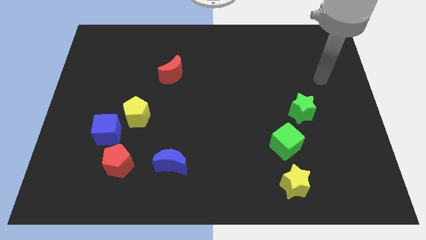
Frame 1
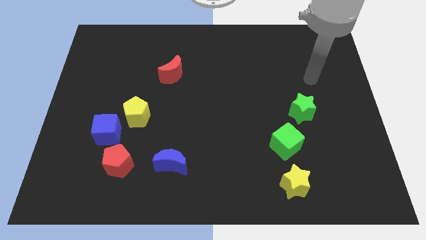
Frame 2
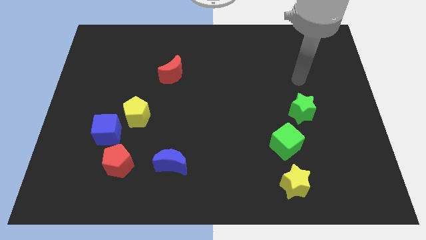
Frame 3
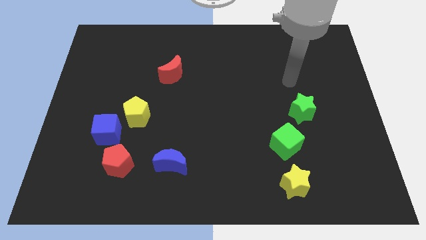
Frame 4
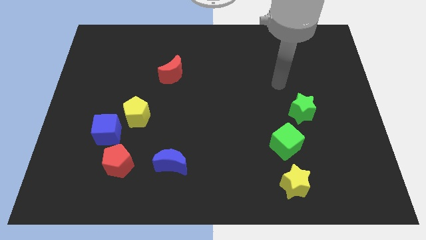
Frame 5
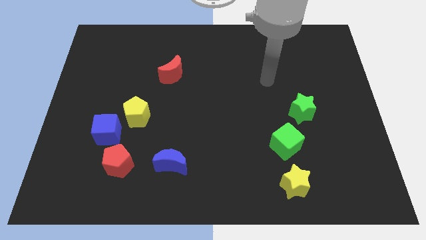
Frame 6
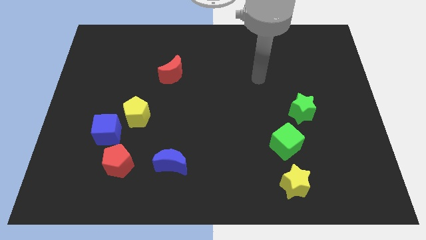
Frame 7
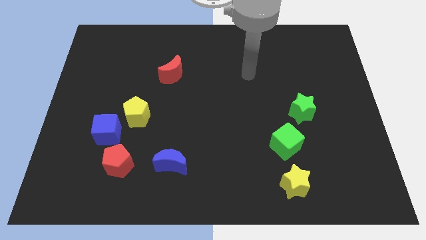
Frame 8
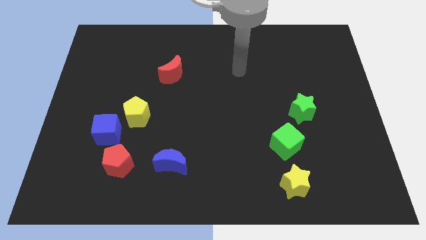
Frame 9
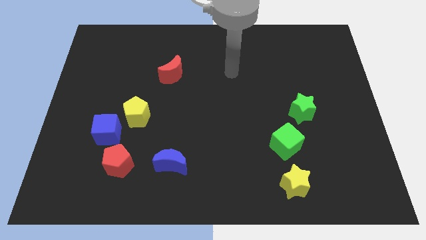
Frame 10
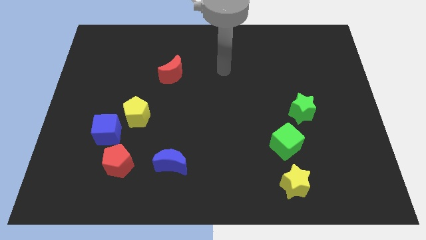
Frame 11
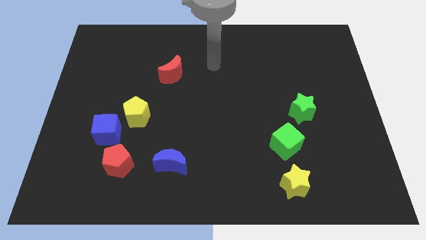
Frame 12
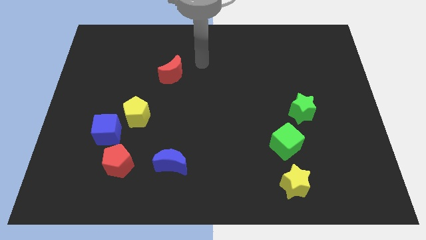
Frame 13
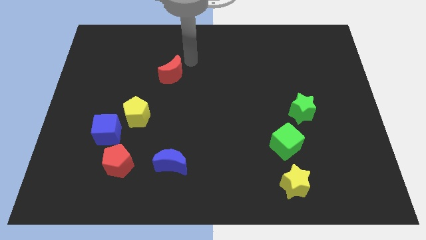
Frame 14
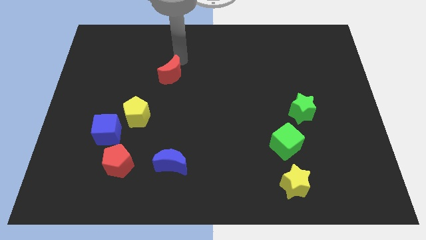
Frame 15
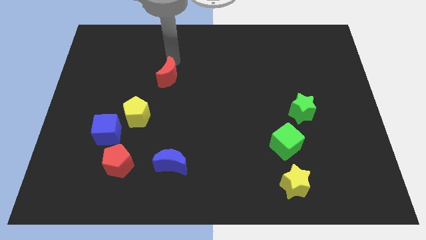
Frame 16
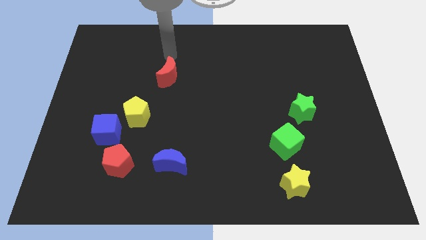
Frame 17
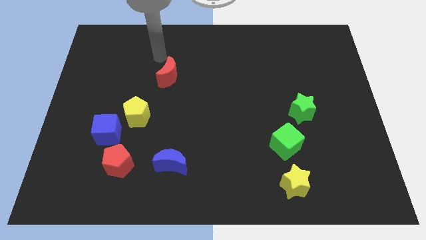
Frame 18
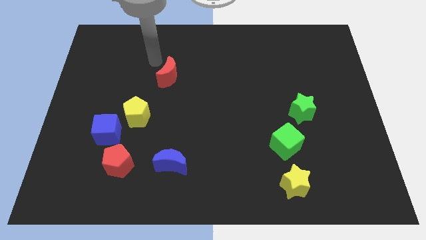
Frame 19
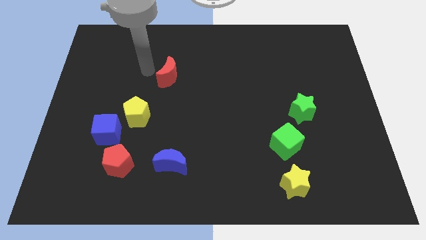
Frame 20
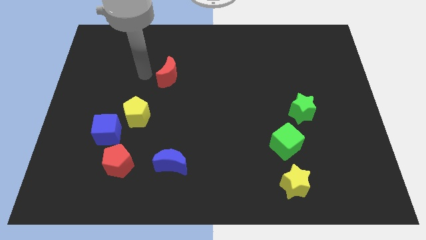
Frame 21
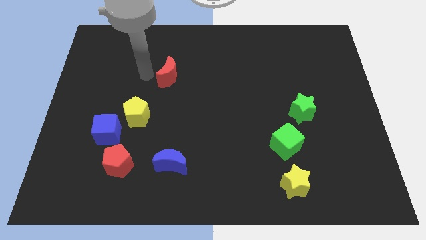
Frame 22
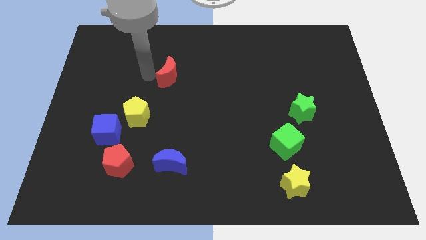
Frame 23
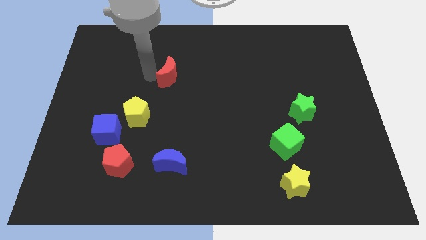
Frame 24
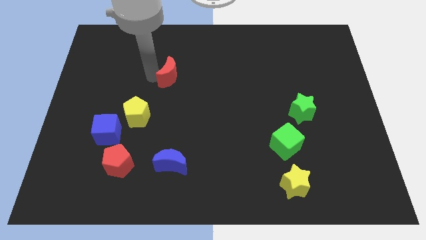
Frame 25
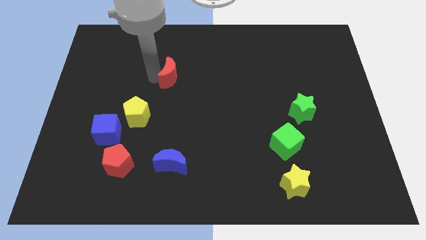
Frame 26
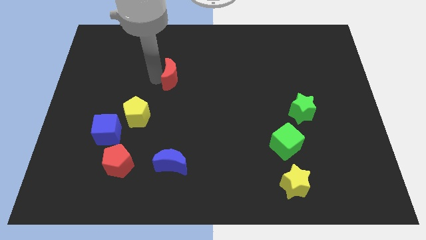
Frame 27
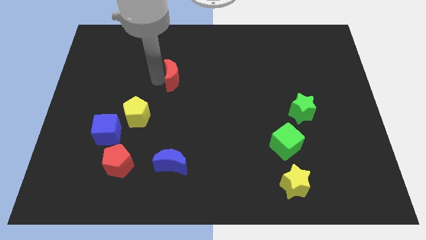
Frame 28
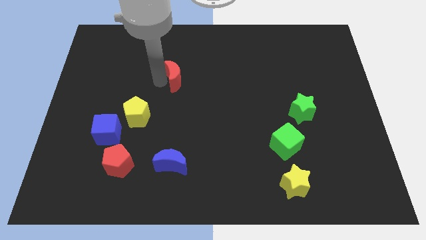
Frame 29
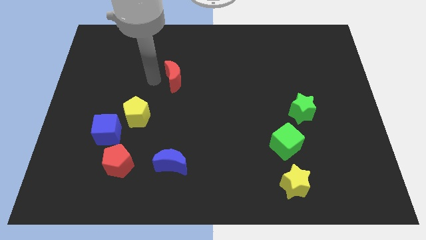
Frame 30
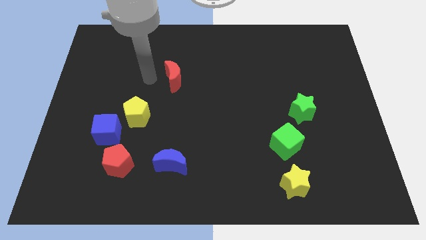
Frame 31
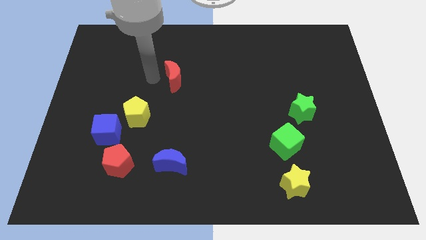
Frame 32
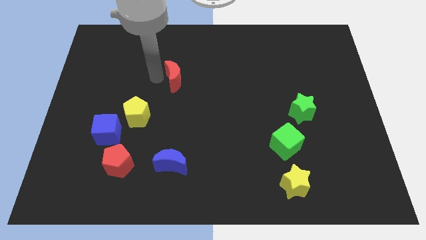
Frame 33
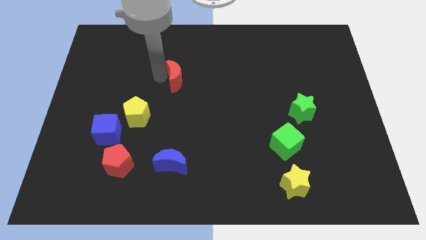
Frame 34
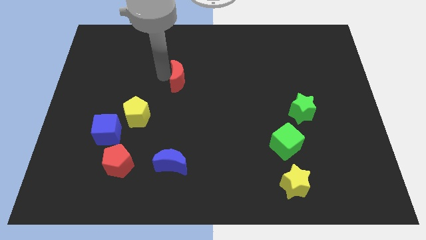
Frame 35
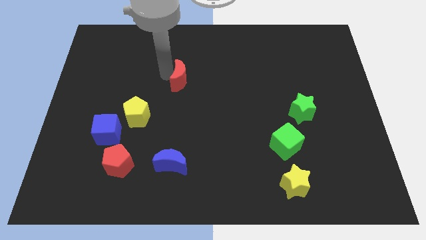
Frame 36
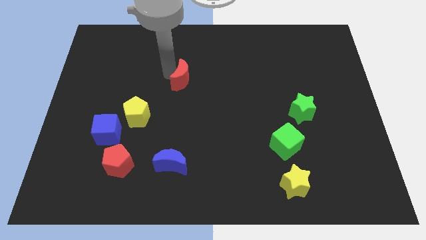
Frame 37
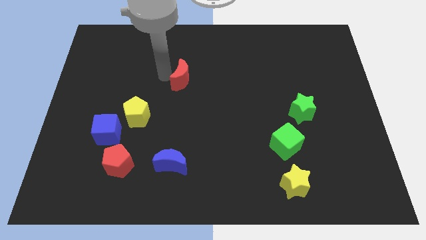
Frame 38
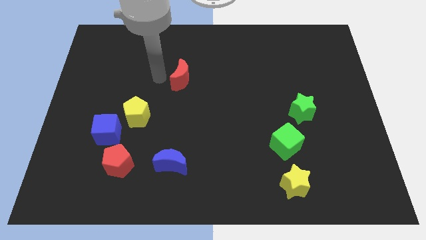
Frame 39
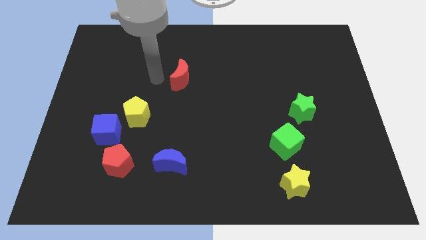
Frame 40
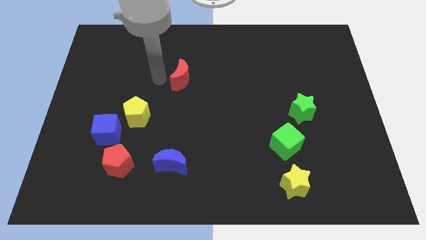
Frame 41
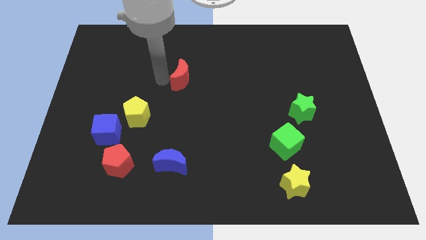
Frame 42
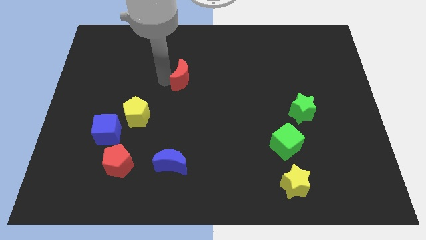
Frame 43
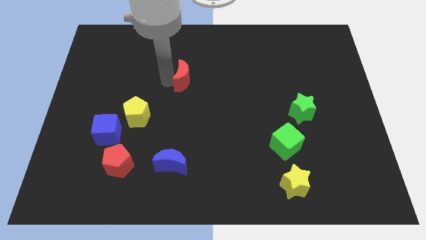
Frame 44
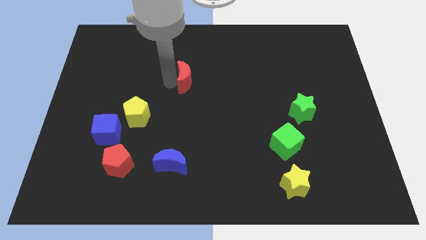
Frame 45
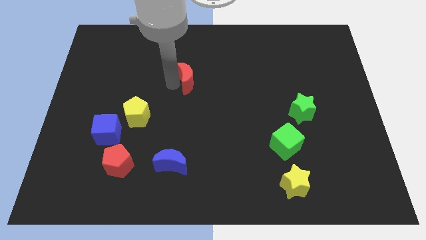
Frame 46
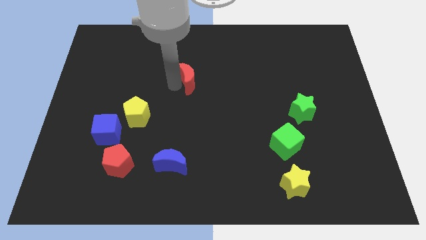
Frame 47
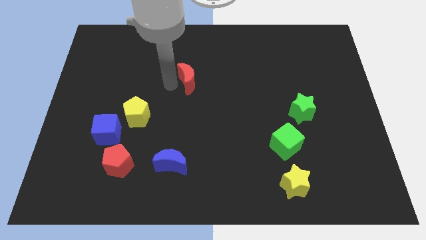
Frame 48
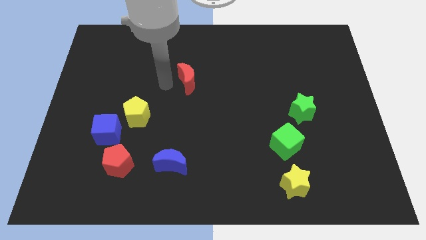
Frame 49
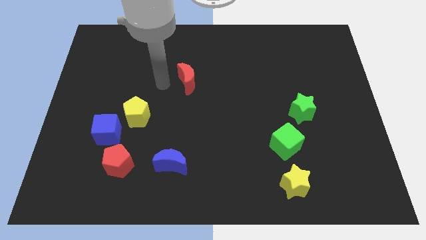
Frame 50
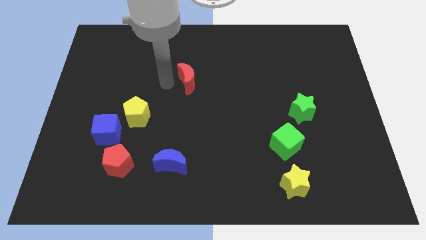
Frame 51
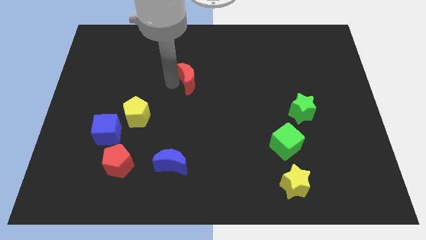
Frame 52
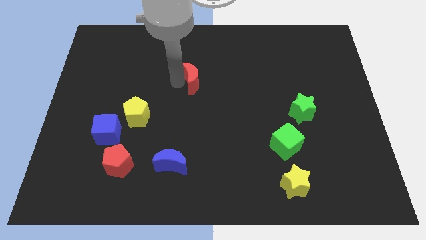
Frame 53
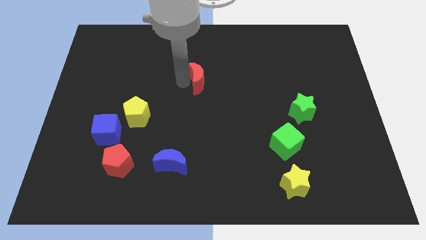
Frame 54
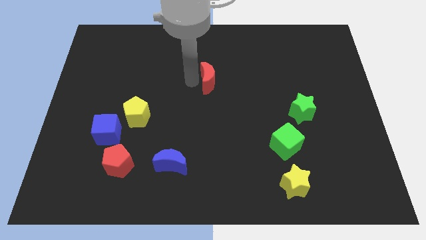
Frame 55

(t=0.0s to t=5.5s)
push the red moon somewhat to the right

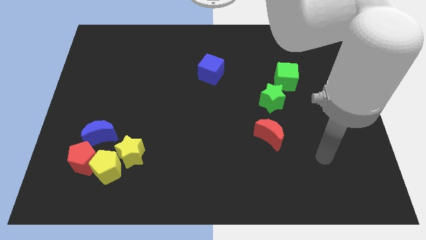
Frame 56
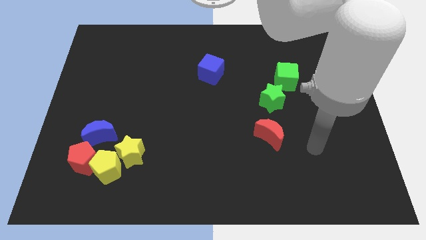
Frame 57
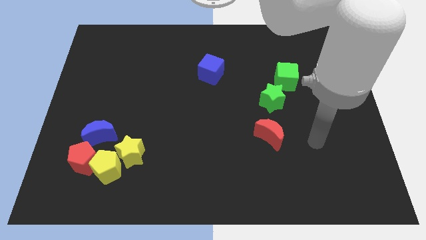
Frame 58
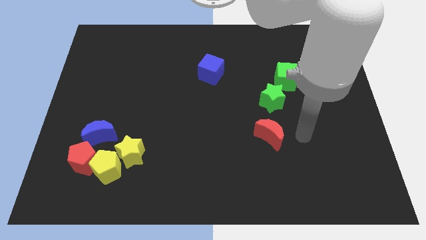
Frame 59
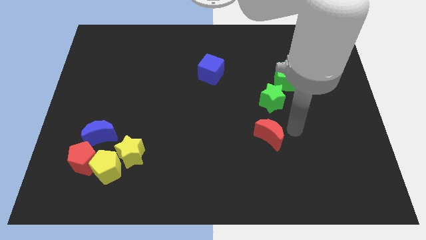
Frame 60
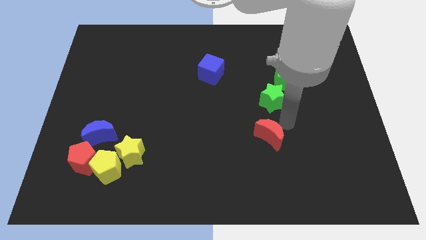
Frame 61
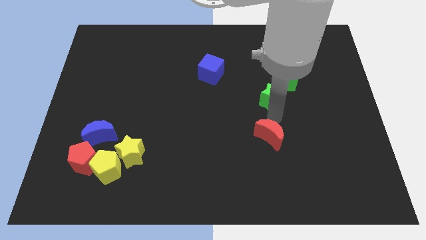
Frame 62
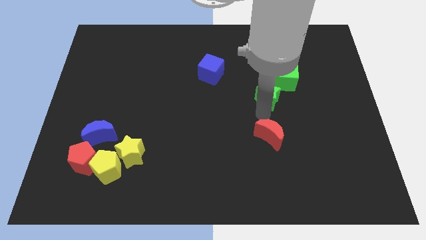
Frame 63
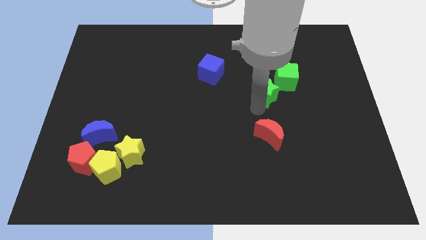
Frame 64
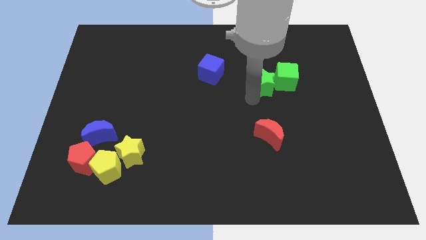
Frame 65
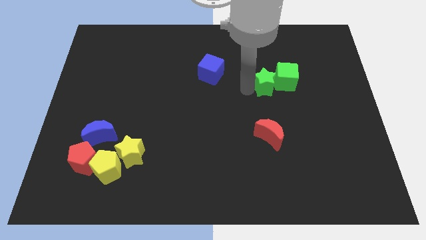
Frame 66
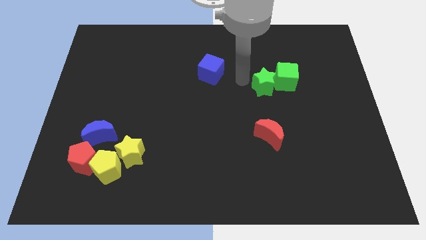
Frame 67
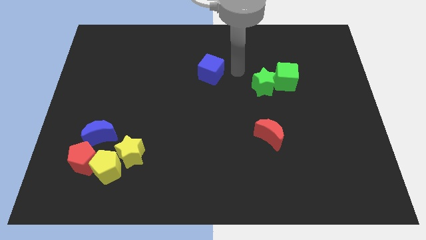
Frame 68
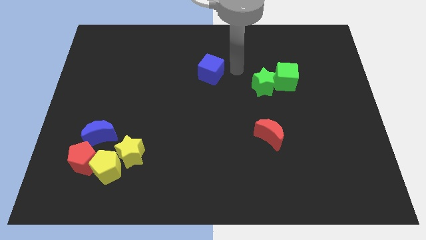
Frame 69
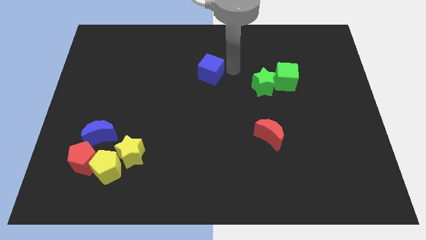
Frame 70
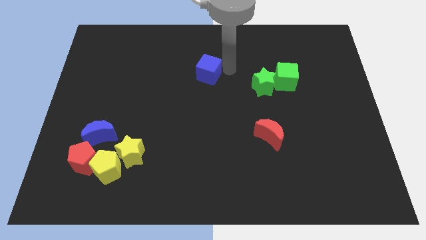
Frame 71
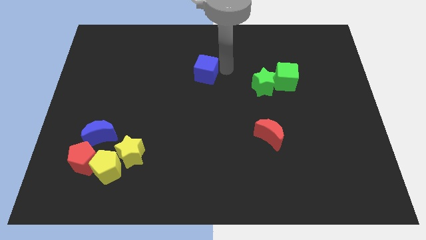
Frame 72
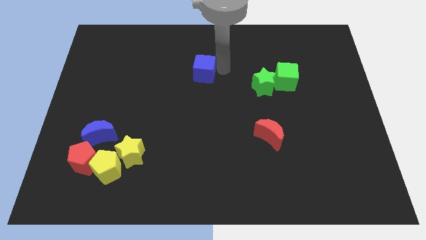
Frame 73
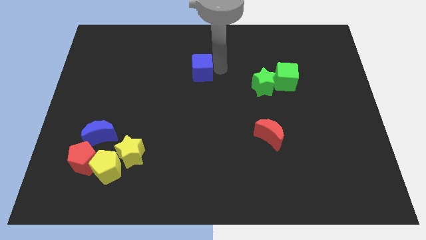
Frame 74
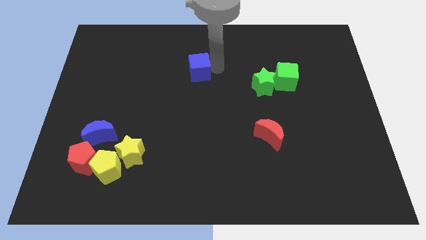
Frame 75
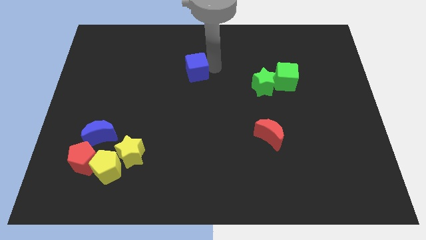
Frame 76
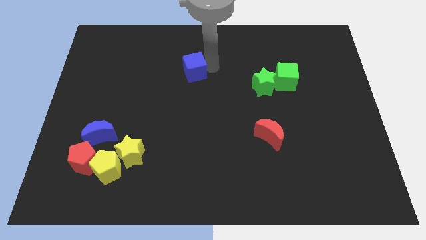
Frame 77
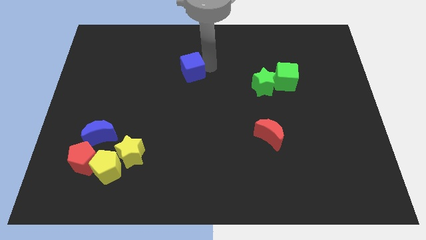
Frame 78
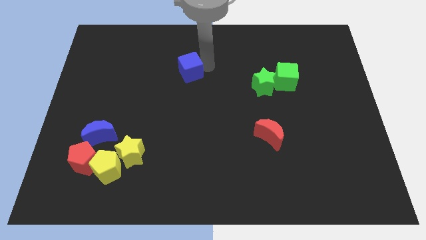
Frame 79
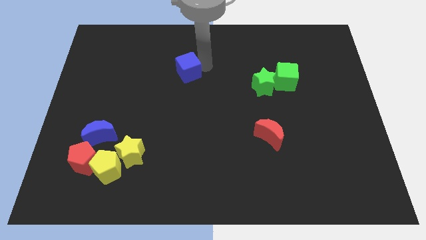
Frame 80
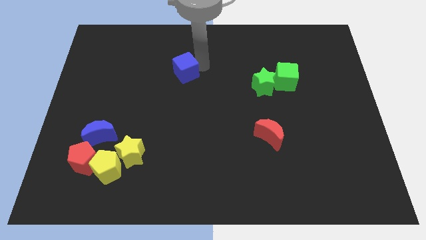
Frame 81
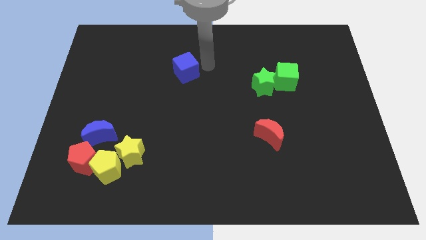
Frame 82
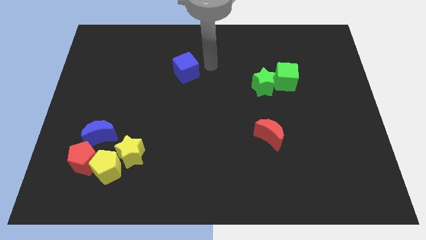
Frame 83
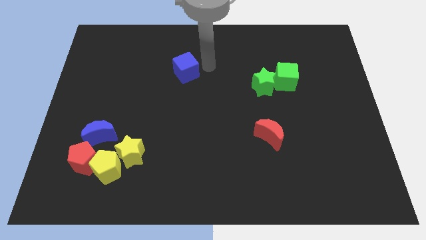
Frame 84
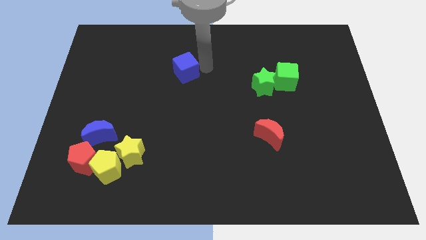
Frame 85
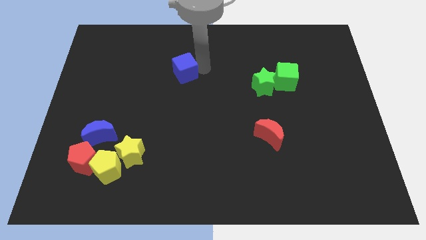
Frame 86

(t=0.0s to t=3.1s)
slightly move the blue cube to the left
